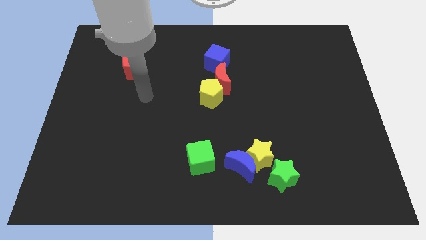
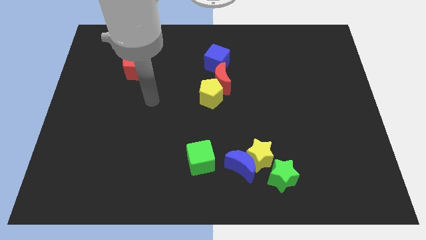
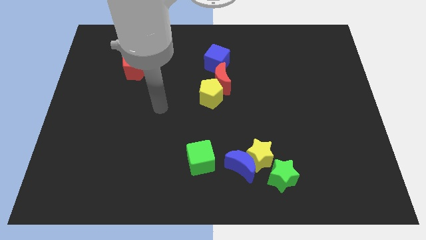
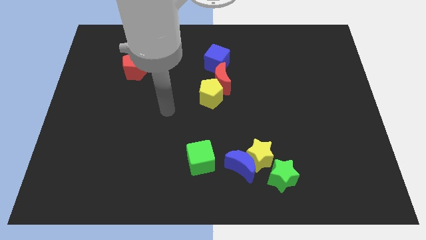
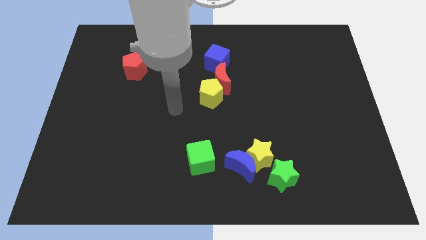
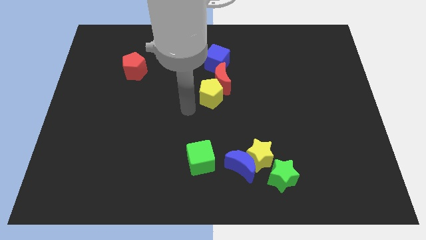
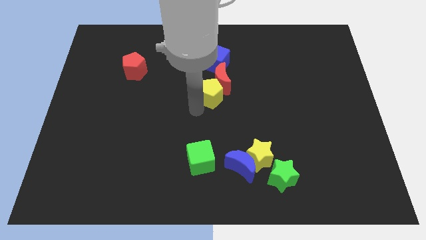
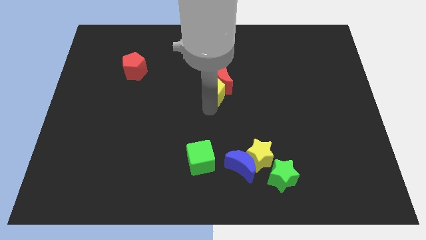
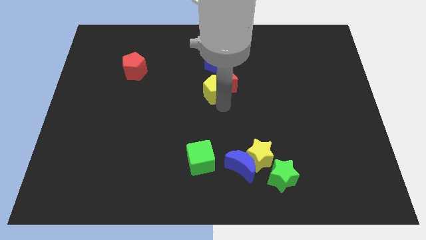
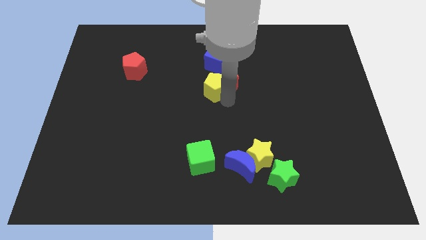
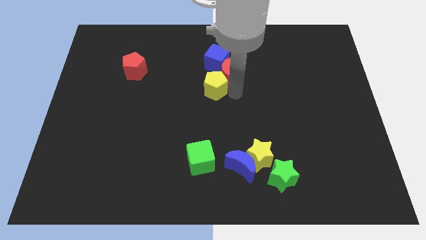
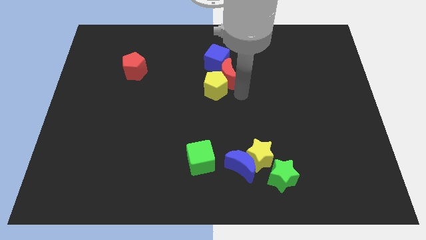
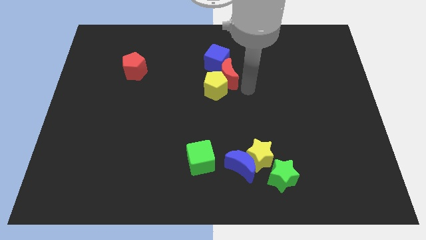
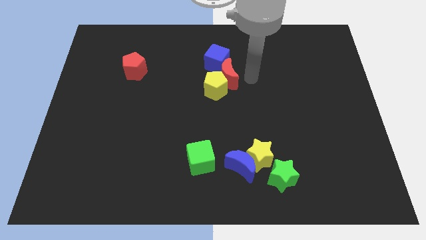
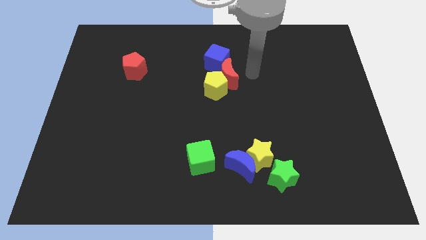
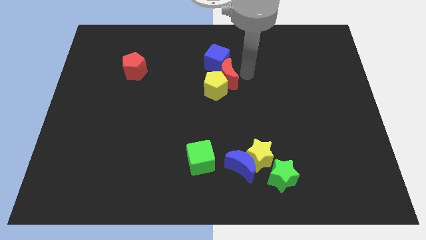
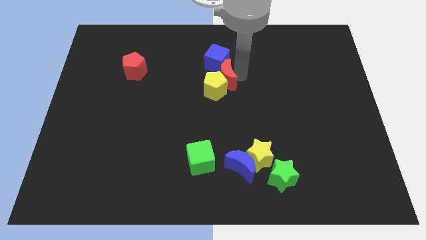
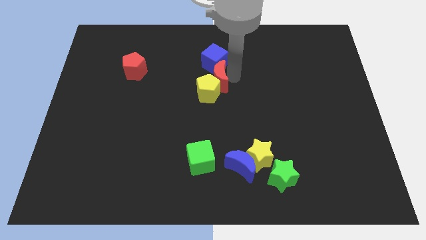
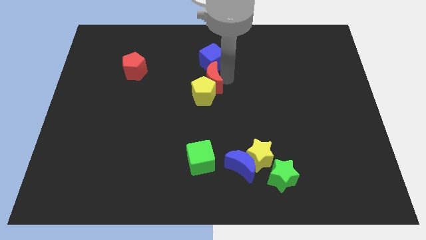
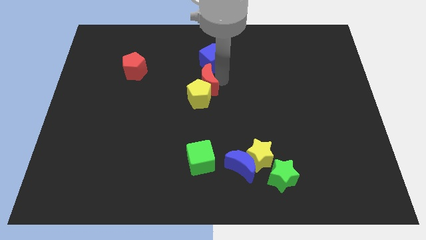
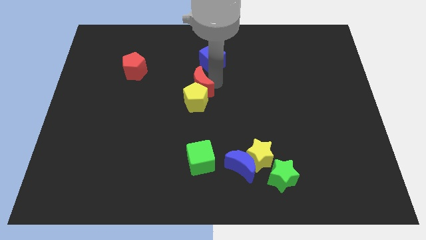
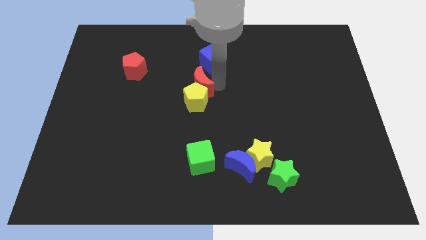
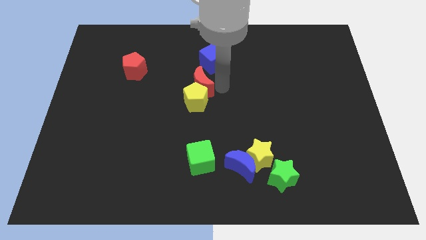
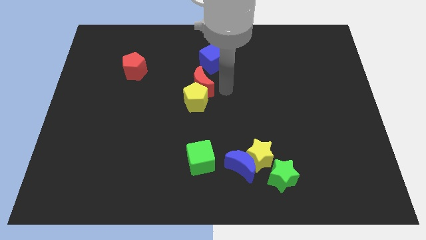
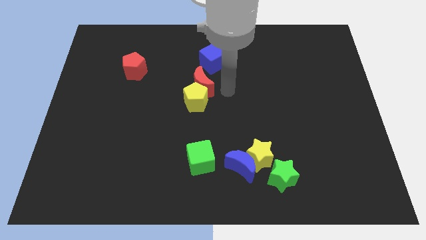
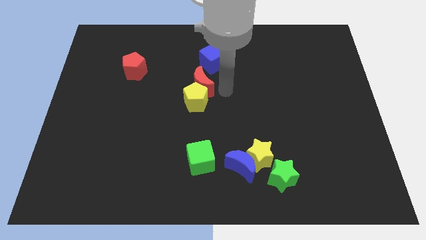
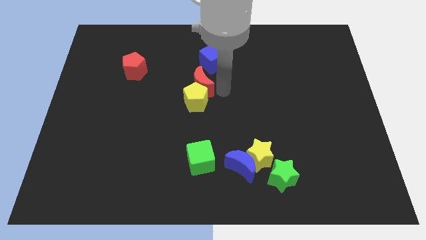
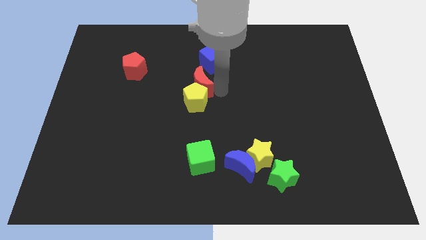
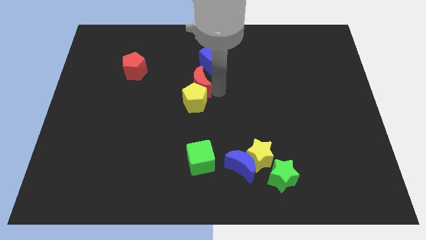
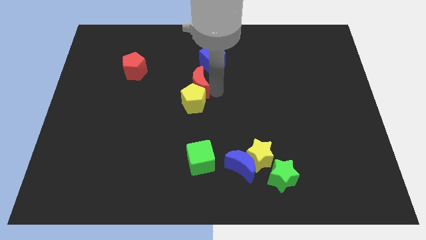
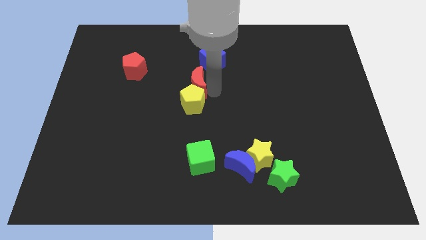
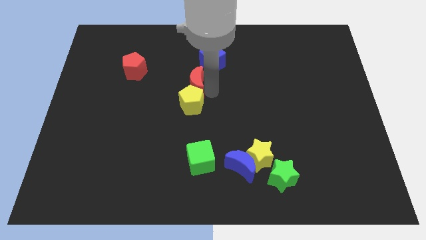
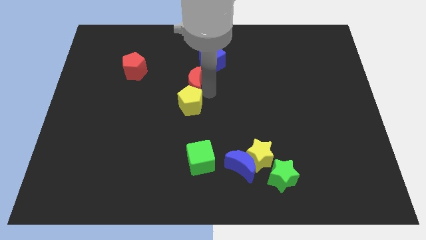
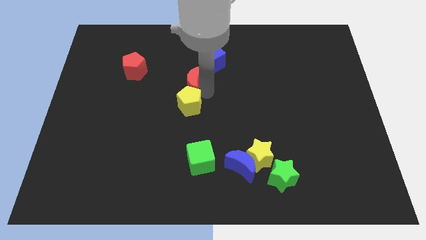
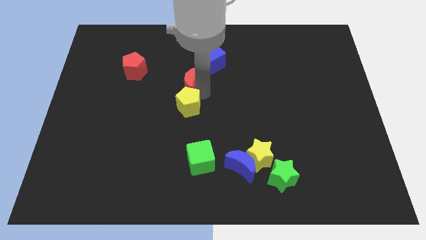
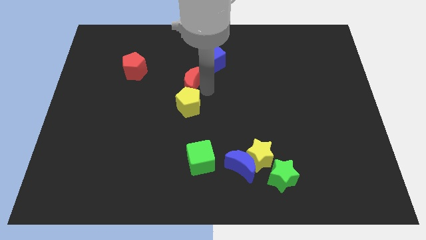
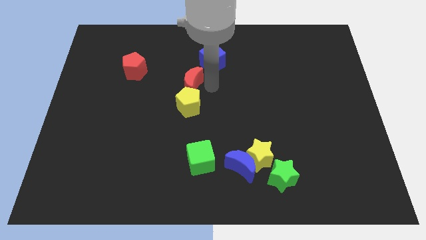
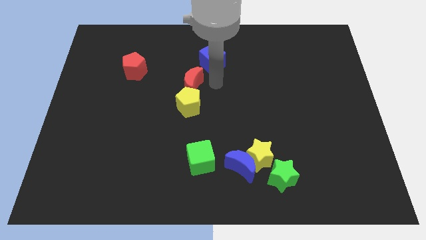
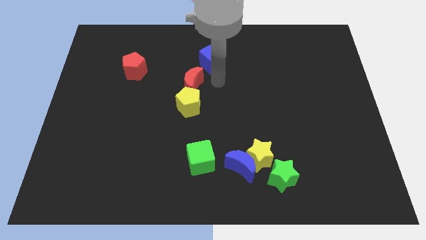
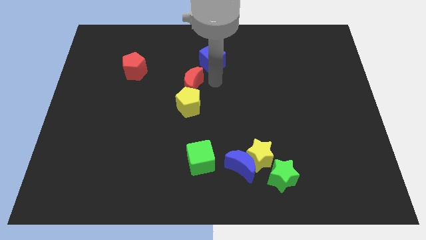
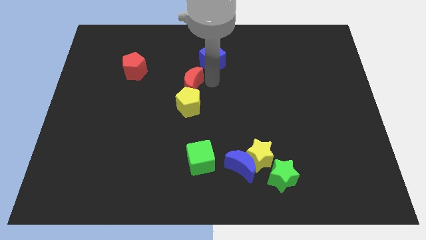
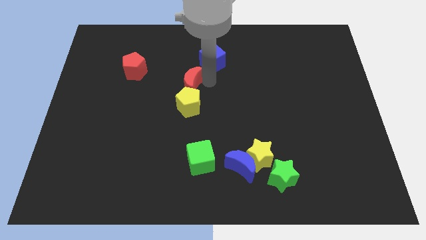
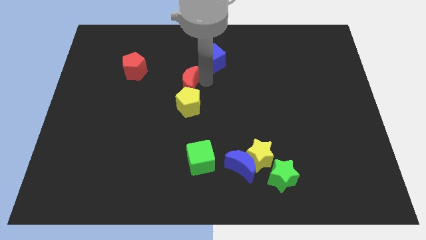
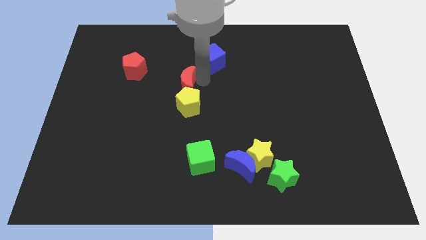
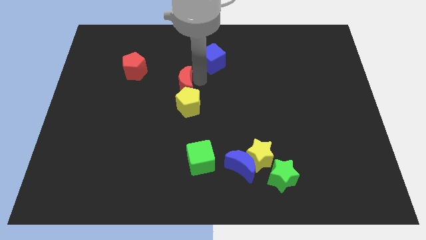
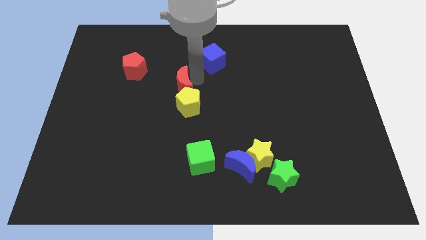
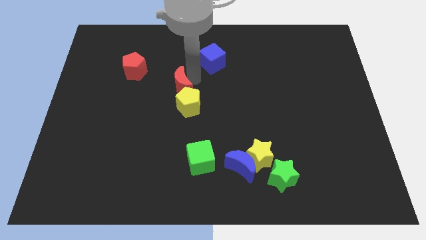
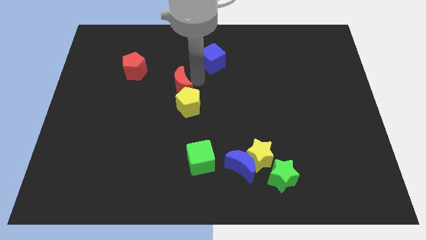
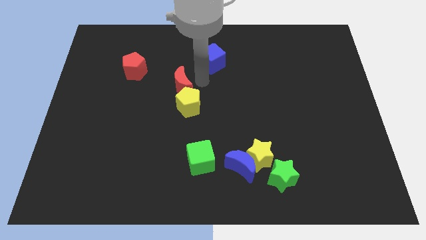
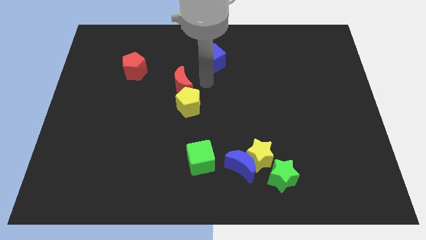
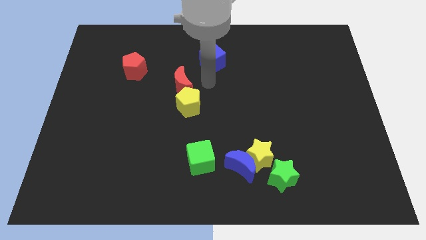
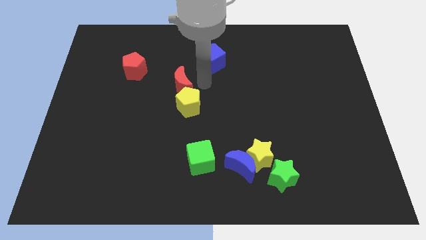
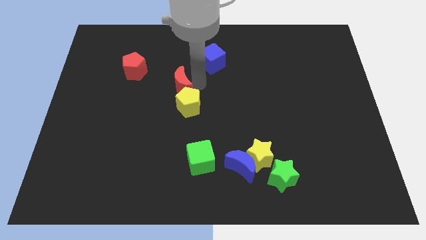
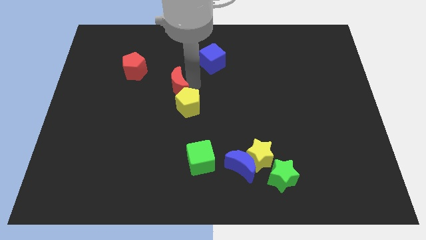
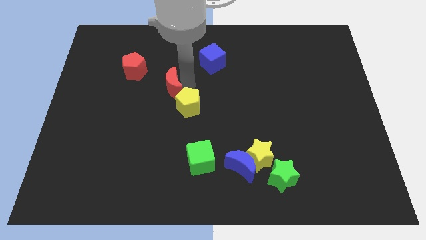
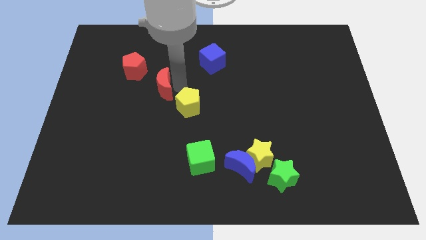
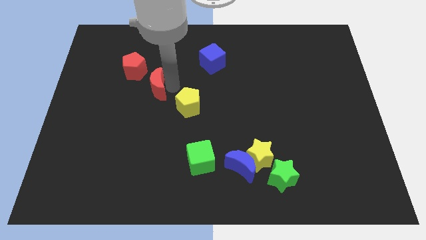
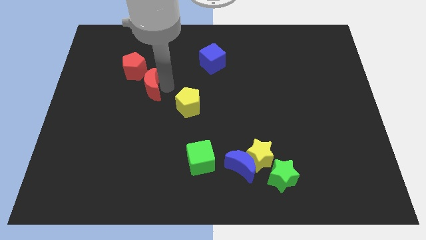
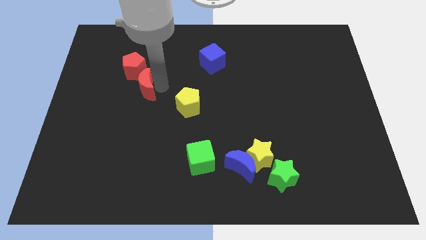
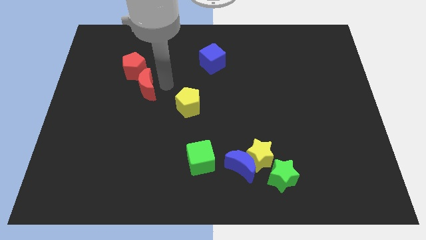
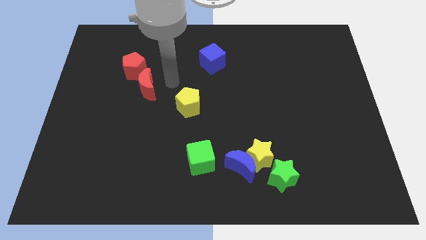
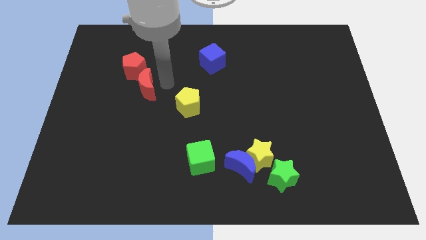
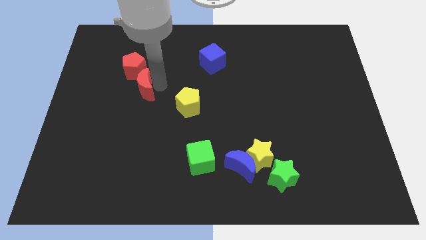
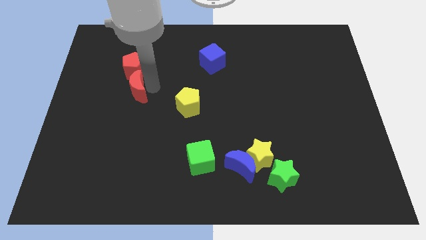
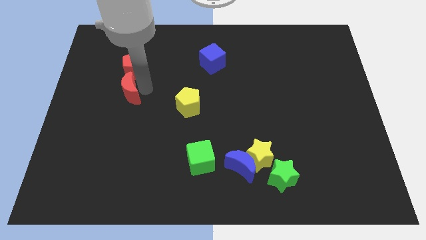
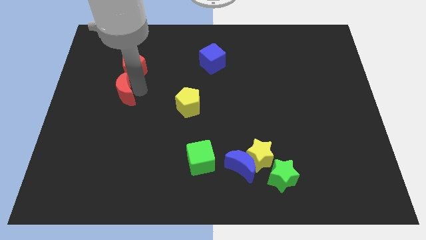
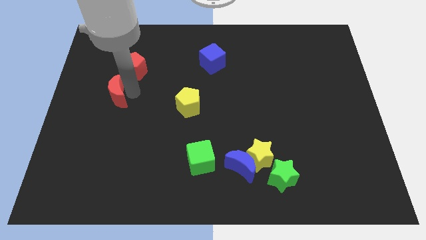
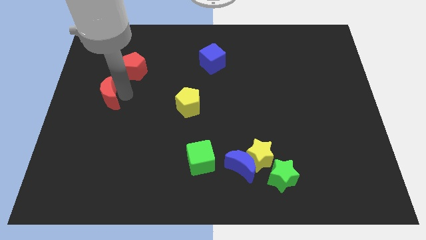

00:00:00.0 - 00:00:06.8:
move the red moon to the left side
